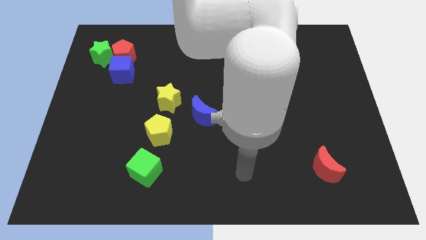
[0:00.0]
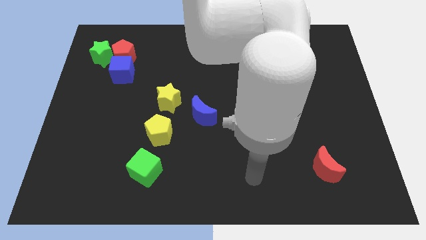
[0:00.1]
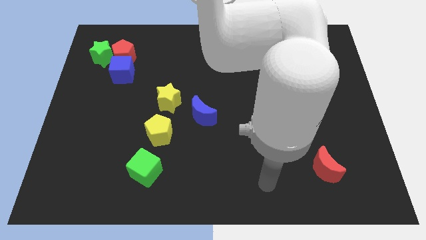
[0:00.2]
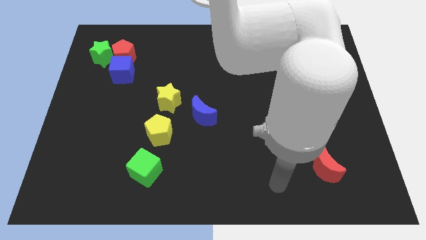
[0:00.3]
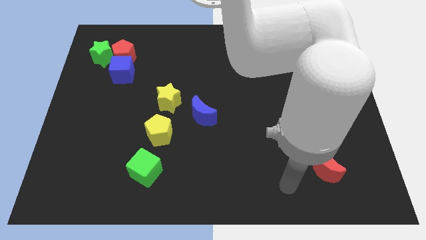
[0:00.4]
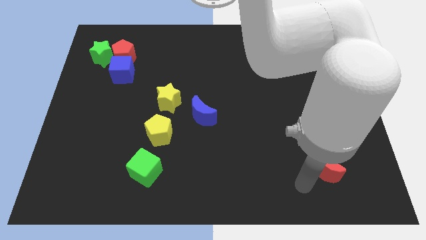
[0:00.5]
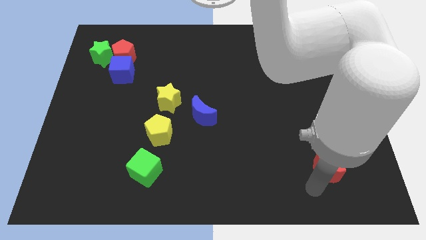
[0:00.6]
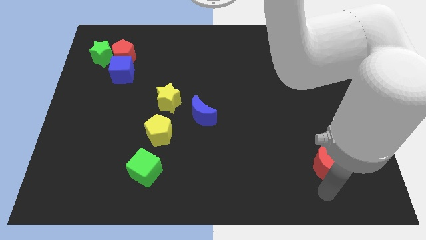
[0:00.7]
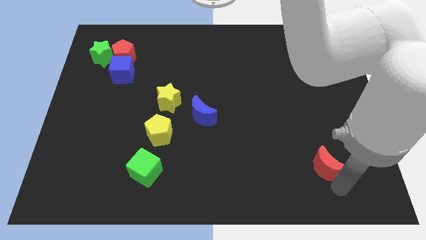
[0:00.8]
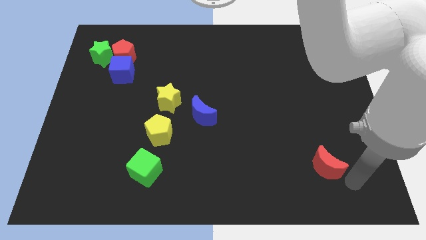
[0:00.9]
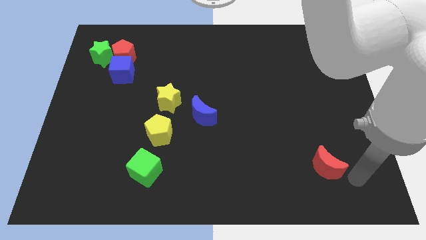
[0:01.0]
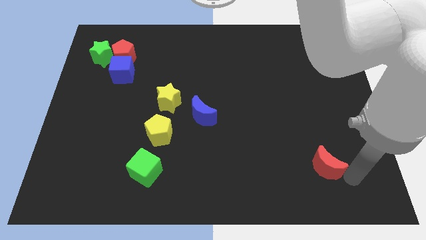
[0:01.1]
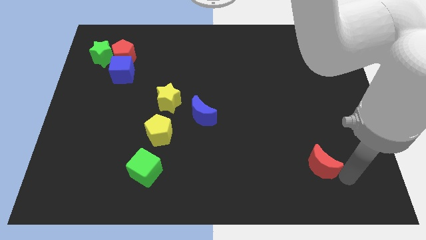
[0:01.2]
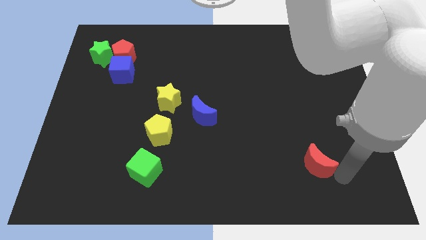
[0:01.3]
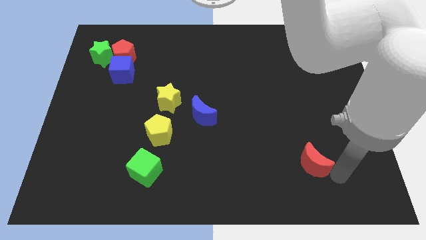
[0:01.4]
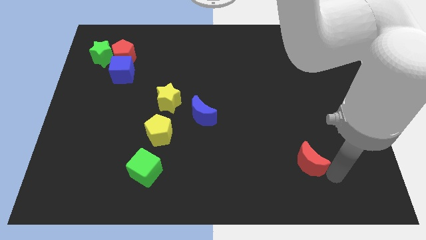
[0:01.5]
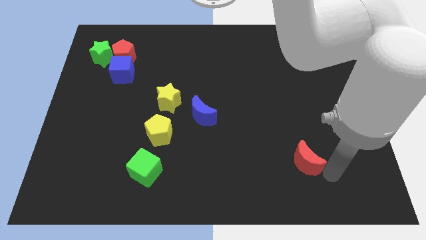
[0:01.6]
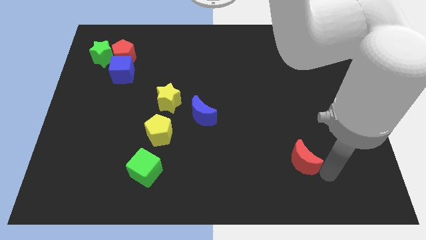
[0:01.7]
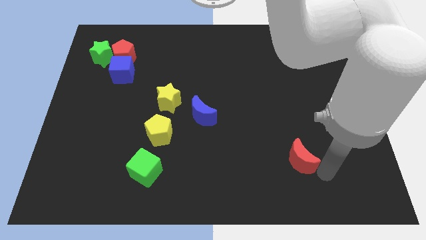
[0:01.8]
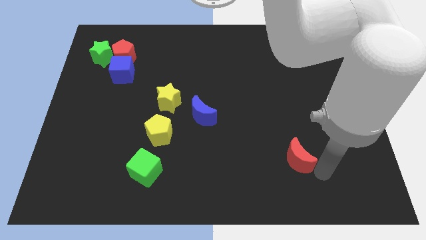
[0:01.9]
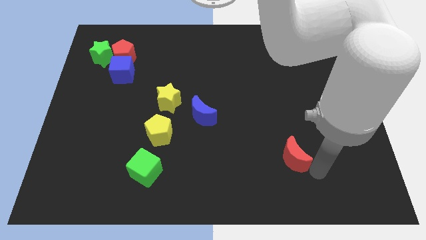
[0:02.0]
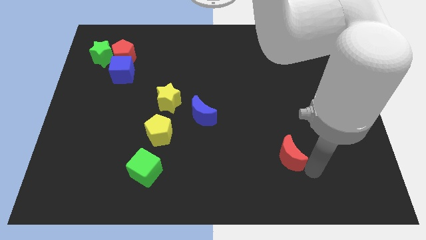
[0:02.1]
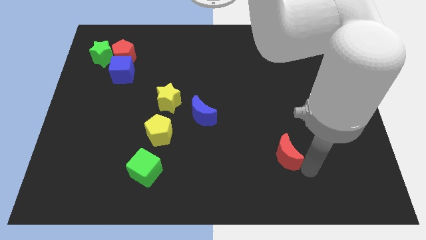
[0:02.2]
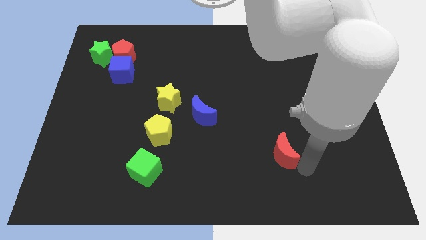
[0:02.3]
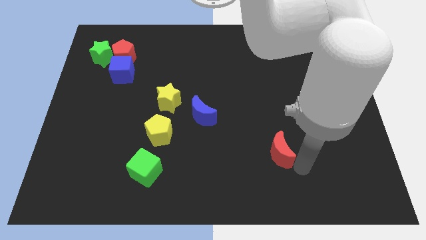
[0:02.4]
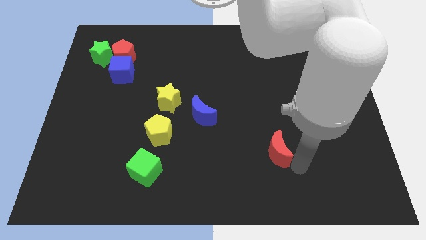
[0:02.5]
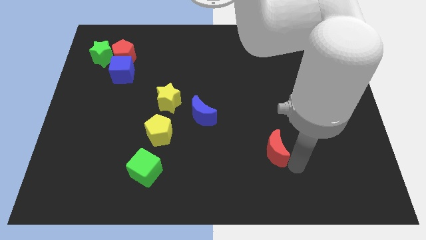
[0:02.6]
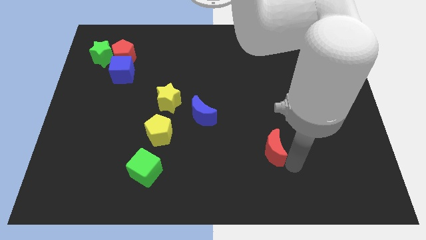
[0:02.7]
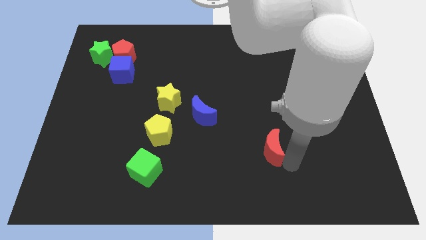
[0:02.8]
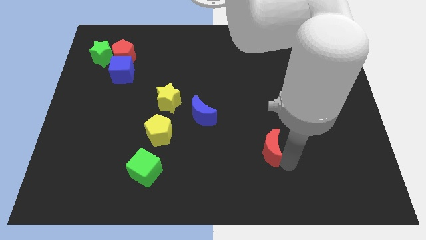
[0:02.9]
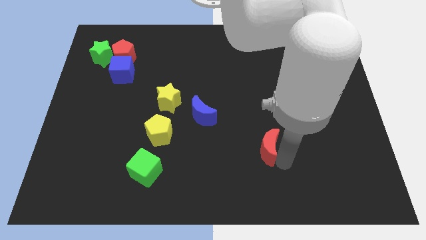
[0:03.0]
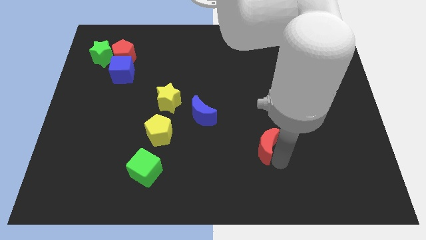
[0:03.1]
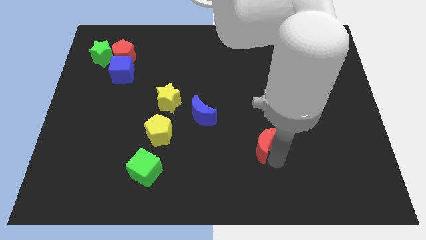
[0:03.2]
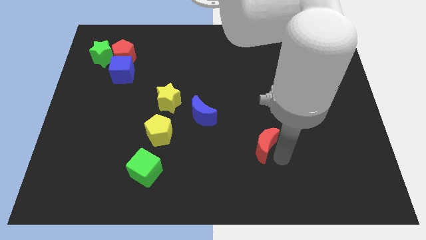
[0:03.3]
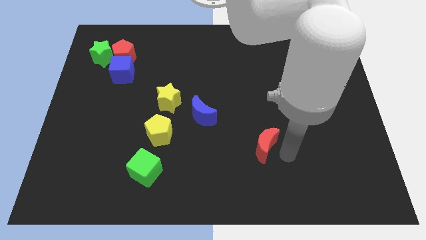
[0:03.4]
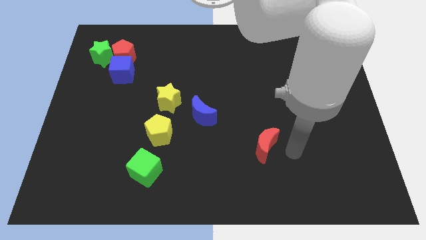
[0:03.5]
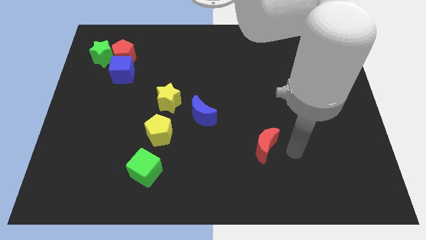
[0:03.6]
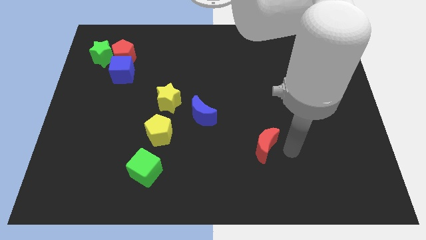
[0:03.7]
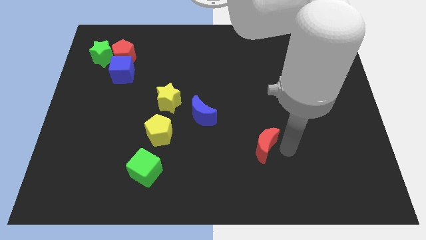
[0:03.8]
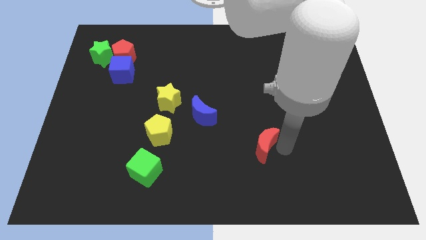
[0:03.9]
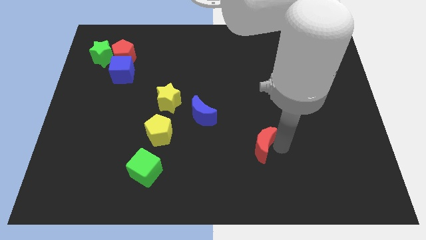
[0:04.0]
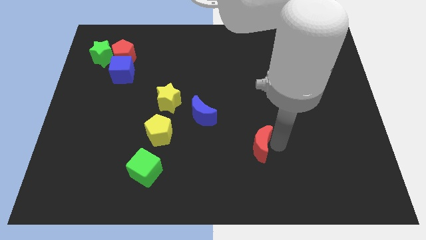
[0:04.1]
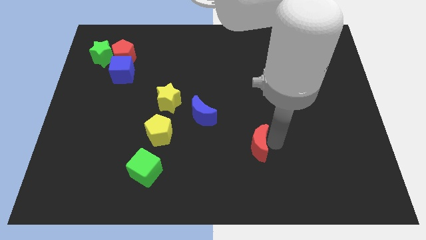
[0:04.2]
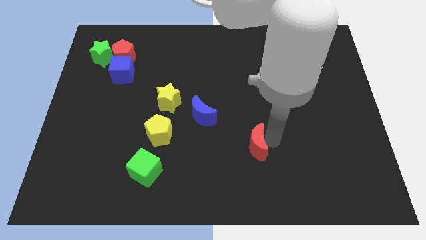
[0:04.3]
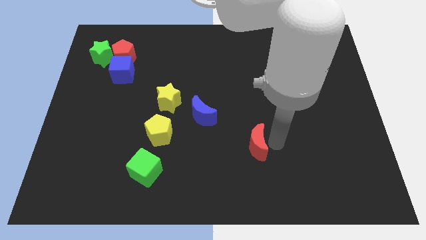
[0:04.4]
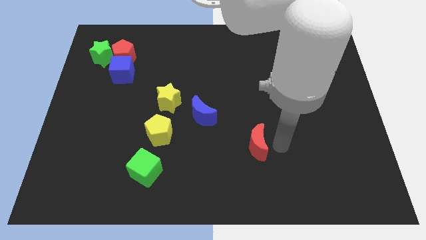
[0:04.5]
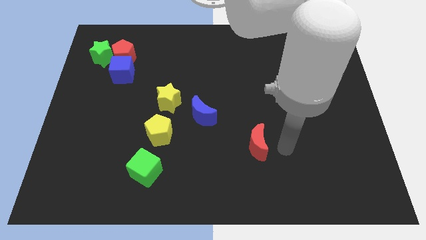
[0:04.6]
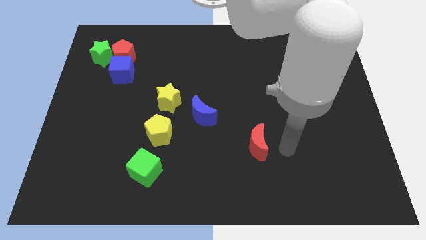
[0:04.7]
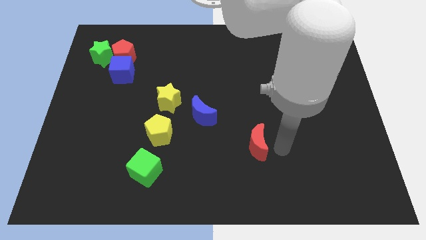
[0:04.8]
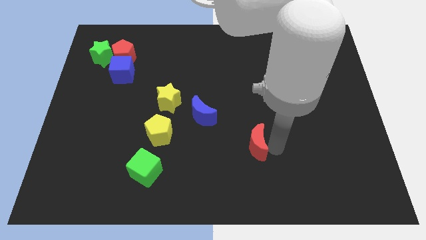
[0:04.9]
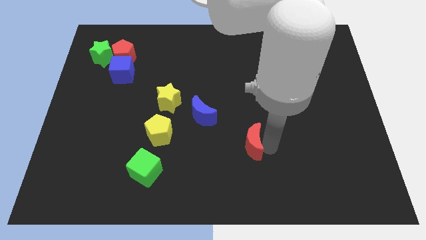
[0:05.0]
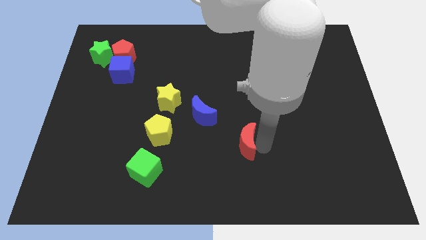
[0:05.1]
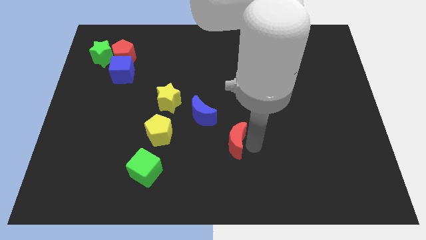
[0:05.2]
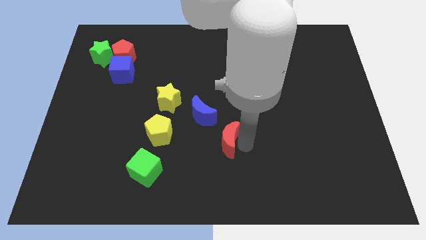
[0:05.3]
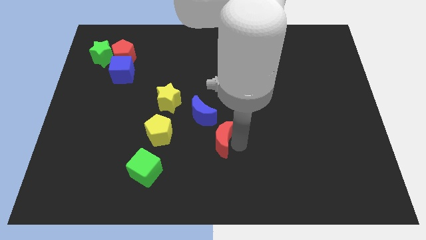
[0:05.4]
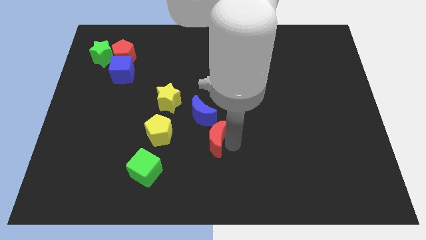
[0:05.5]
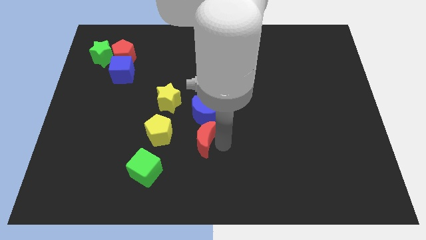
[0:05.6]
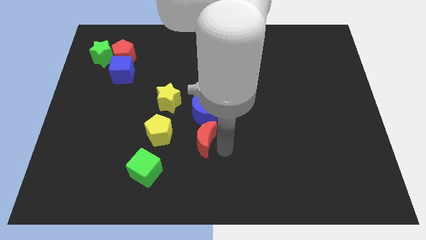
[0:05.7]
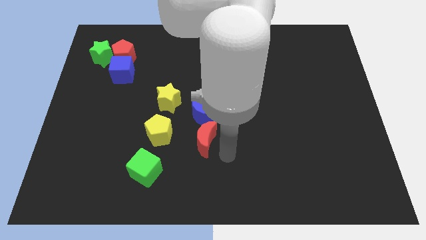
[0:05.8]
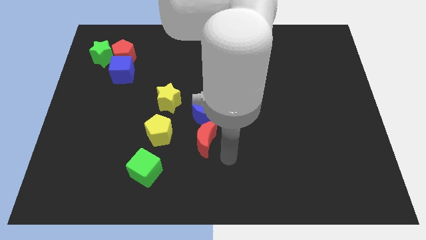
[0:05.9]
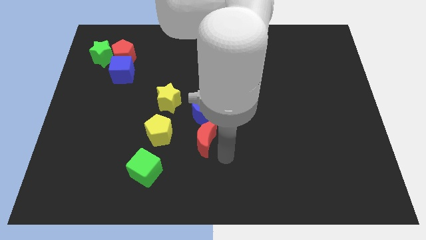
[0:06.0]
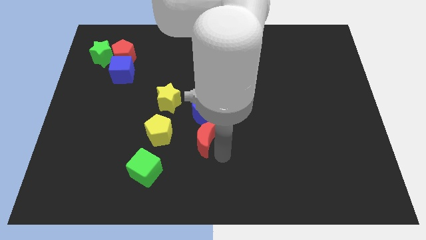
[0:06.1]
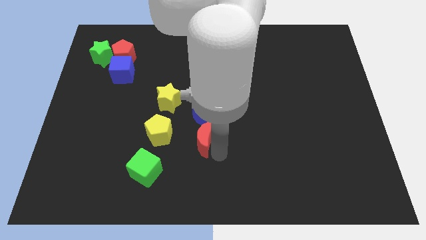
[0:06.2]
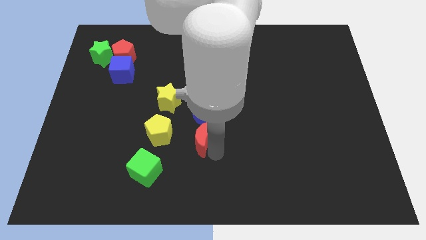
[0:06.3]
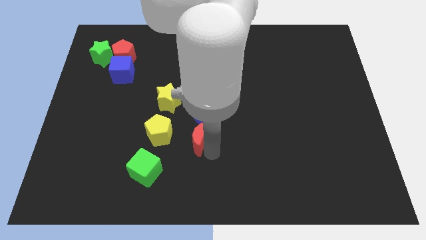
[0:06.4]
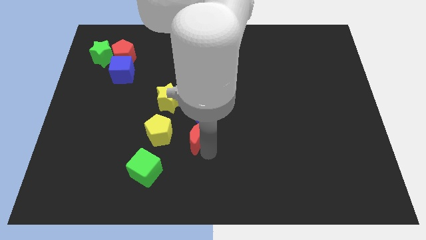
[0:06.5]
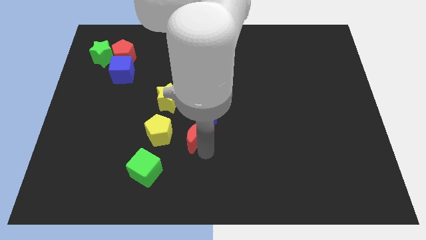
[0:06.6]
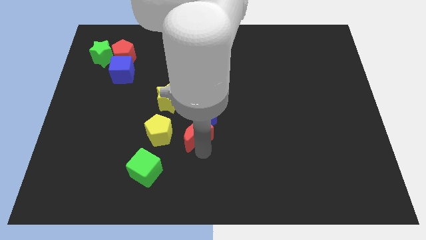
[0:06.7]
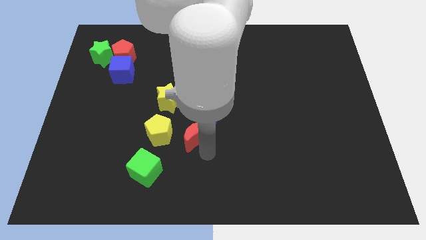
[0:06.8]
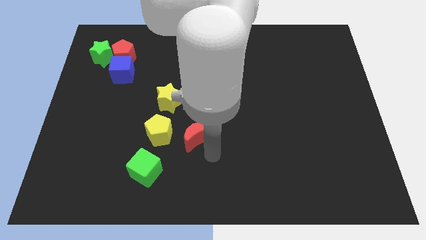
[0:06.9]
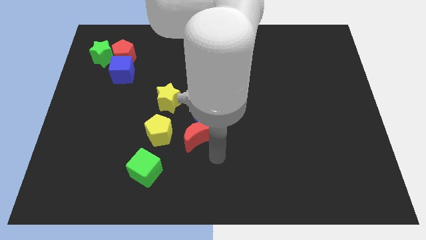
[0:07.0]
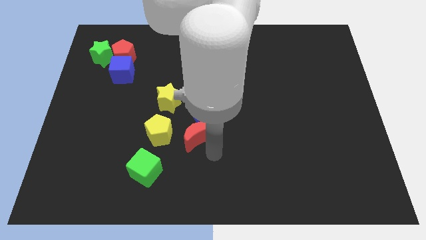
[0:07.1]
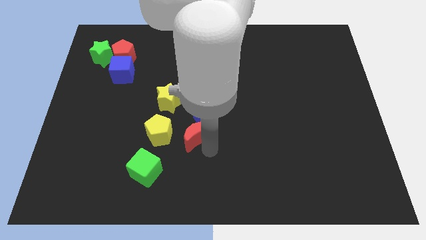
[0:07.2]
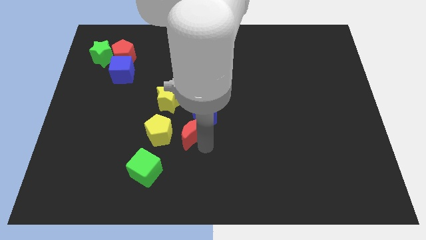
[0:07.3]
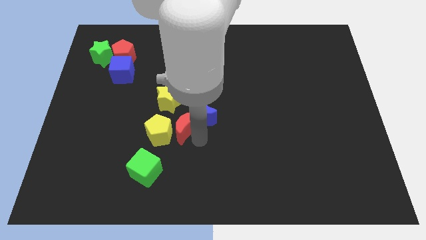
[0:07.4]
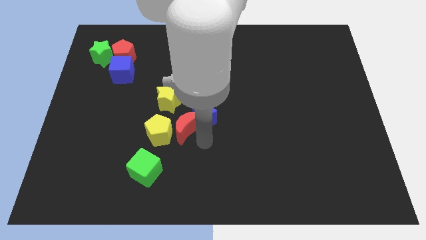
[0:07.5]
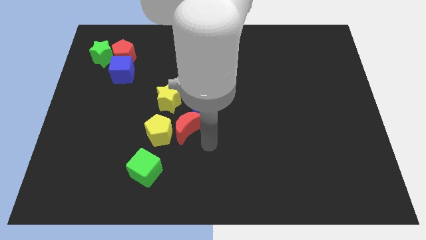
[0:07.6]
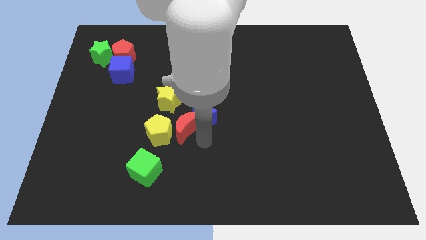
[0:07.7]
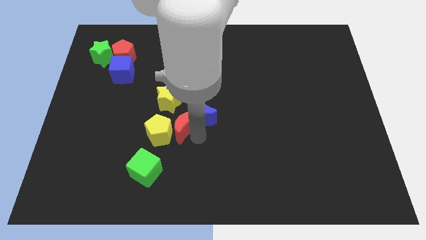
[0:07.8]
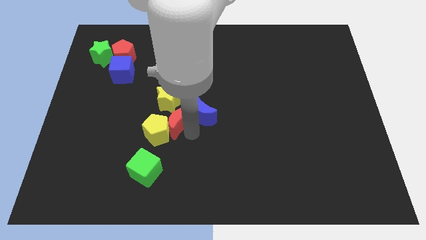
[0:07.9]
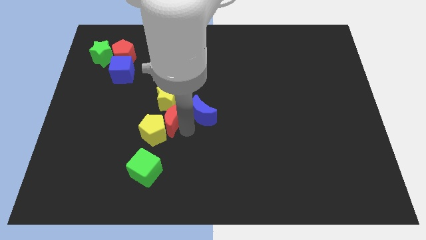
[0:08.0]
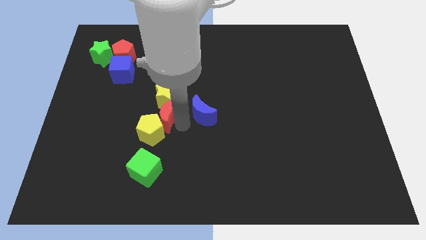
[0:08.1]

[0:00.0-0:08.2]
slide the red moon to the bottom left of the yellow star
